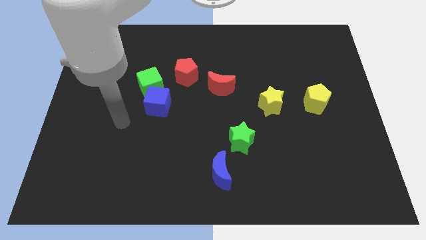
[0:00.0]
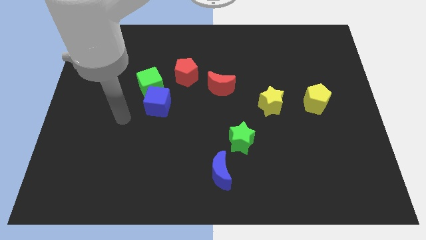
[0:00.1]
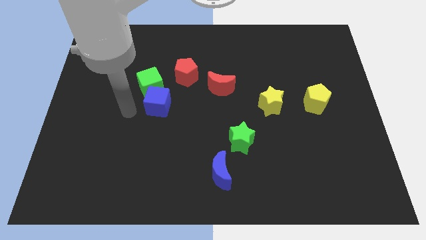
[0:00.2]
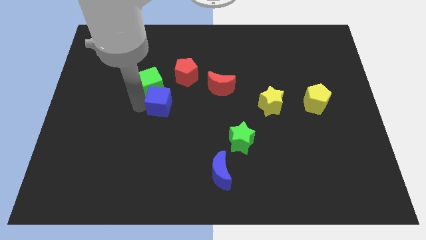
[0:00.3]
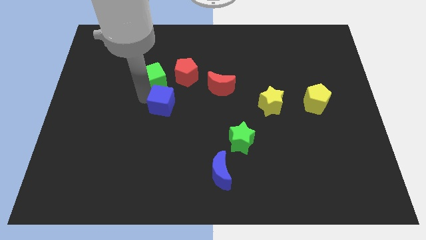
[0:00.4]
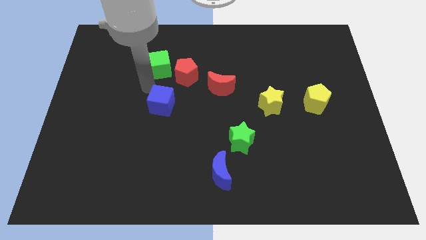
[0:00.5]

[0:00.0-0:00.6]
move the blue cube away from the green cube

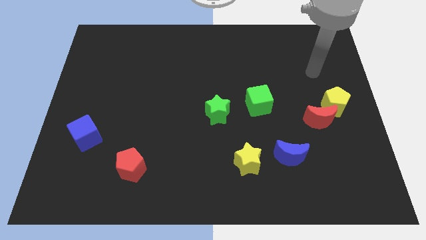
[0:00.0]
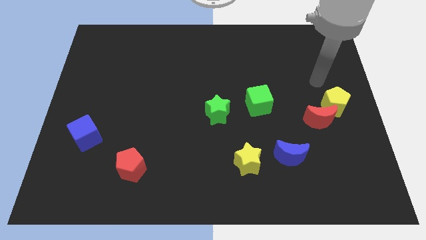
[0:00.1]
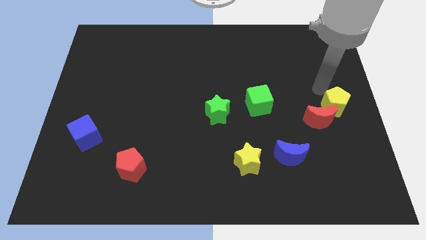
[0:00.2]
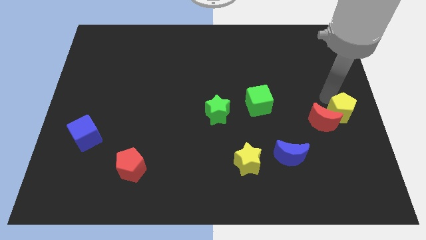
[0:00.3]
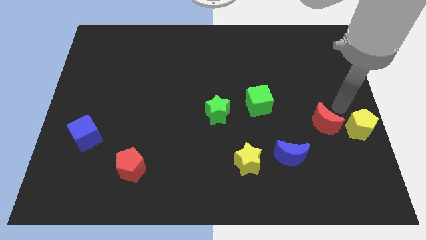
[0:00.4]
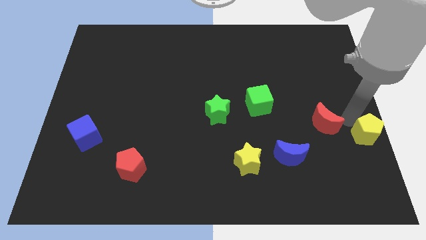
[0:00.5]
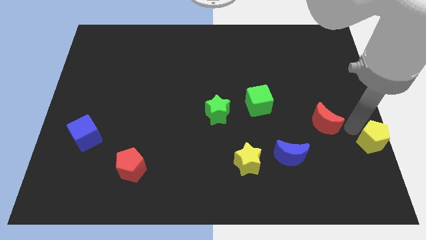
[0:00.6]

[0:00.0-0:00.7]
separate the red moon from the yellow pentagon

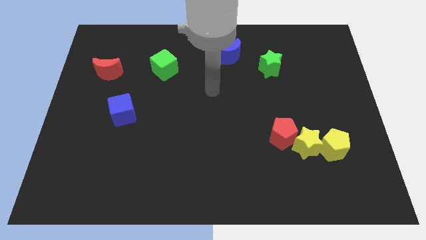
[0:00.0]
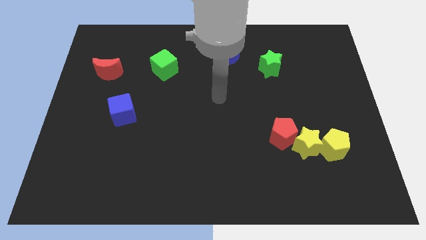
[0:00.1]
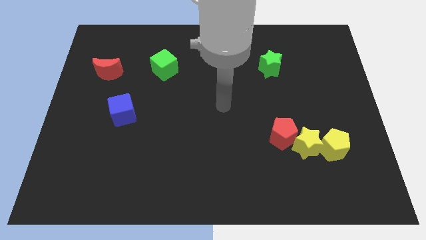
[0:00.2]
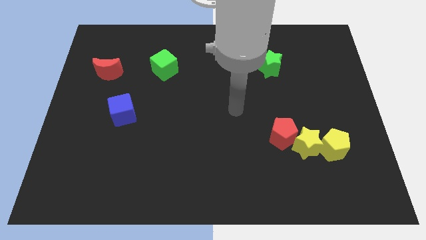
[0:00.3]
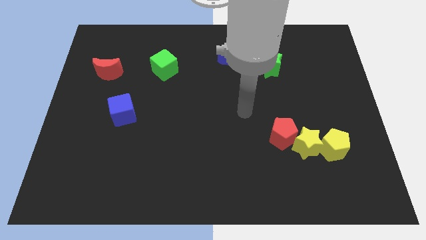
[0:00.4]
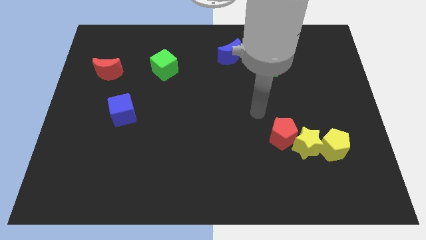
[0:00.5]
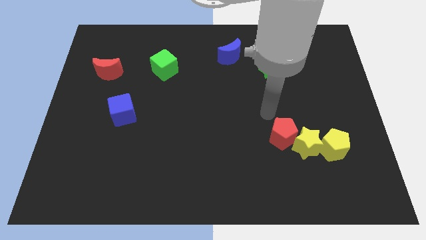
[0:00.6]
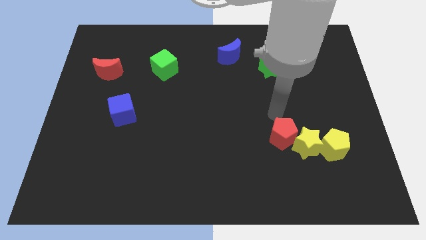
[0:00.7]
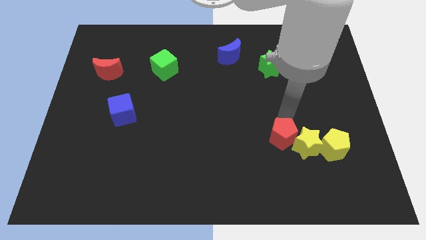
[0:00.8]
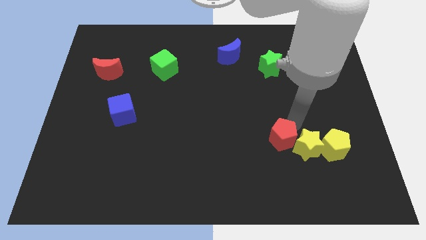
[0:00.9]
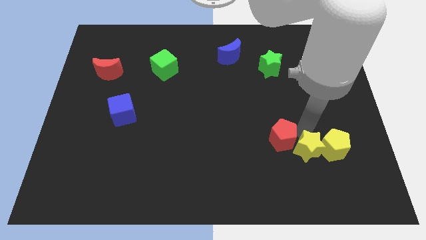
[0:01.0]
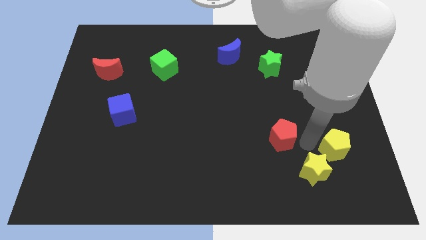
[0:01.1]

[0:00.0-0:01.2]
separate the red pentagon from the yellow star

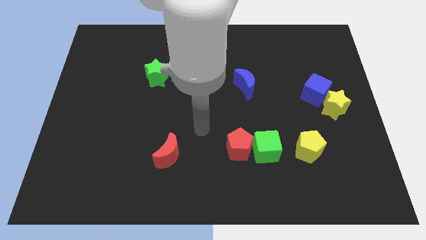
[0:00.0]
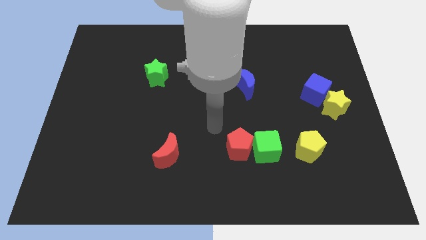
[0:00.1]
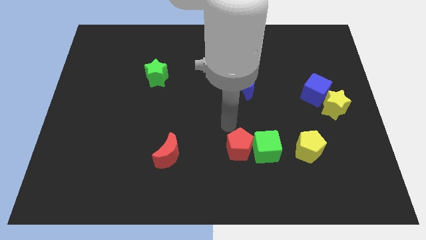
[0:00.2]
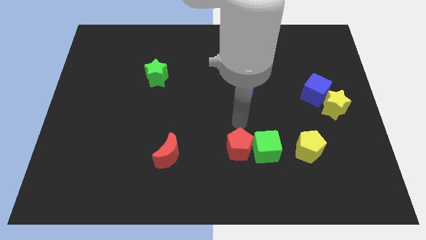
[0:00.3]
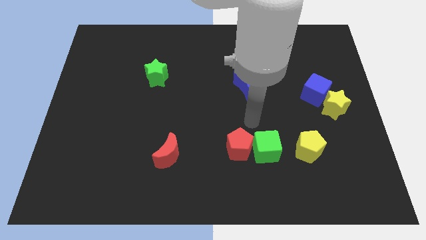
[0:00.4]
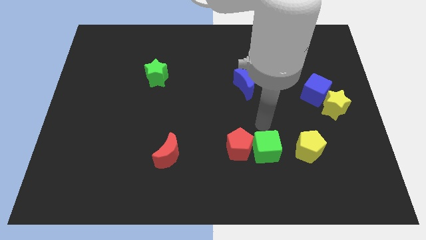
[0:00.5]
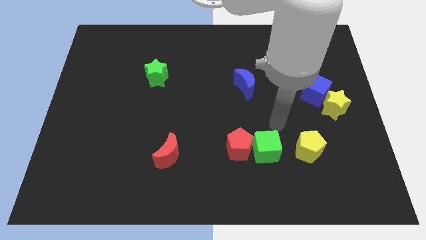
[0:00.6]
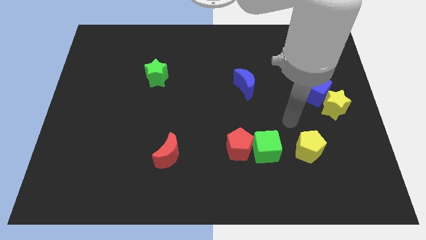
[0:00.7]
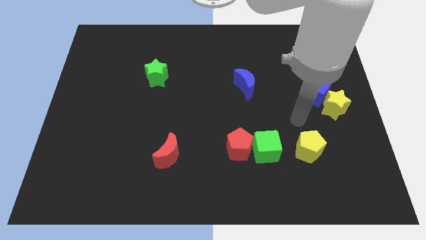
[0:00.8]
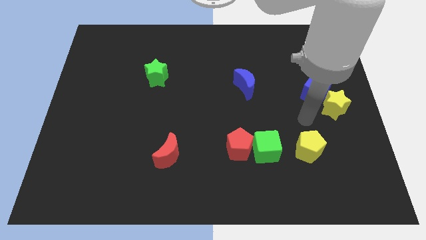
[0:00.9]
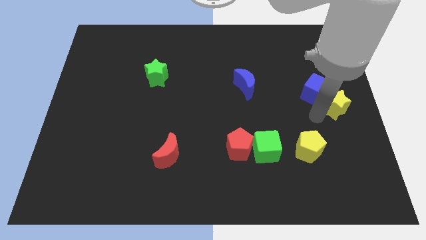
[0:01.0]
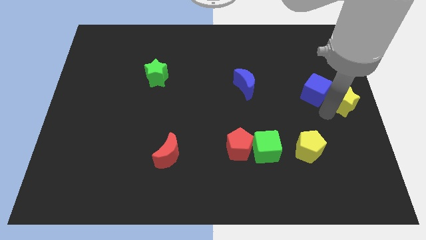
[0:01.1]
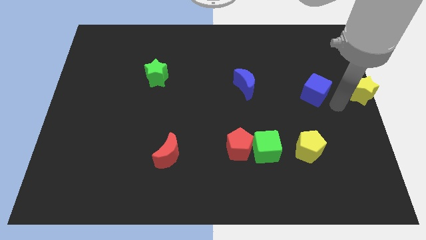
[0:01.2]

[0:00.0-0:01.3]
pull the blue cube apart from the yellow star

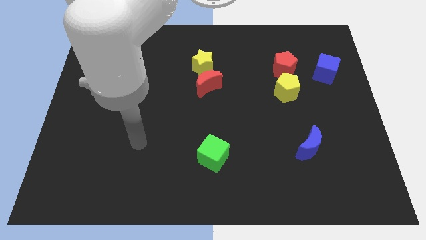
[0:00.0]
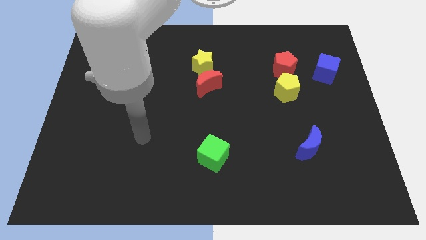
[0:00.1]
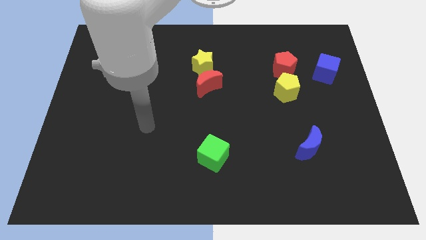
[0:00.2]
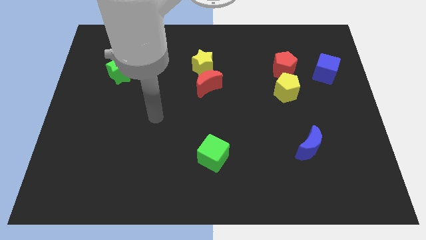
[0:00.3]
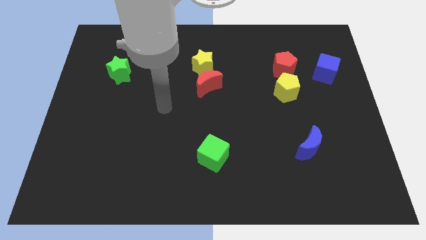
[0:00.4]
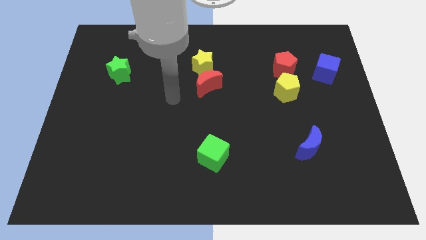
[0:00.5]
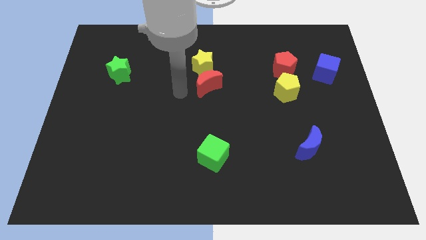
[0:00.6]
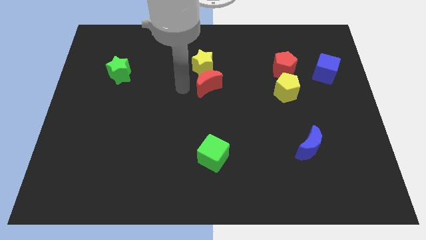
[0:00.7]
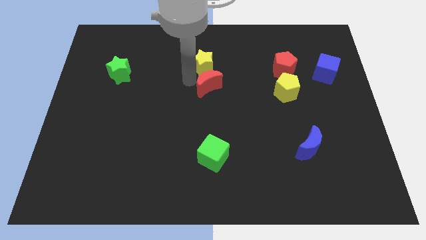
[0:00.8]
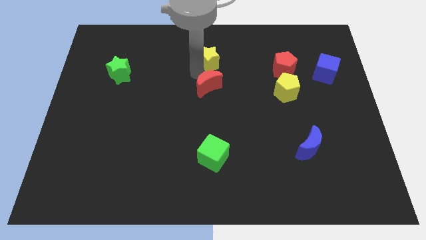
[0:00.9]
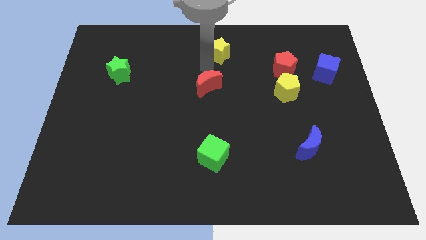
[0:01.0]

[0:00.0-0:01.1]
pull the red moon apart from the yellow star

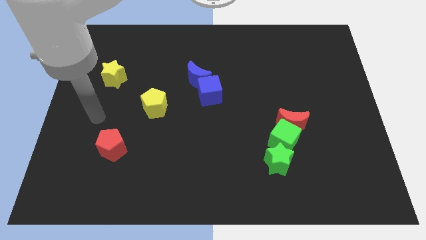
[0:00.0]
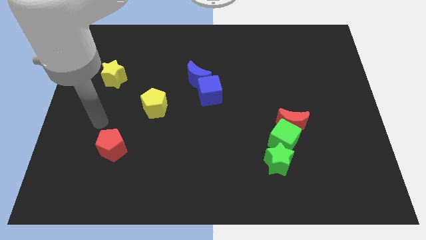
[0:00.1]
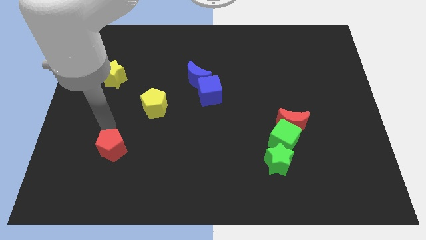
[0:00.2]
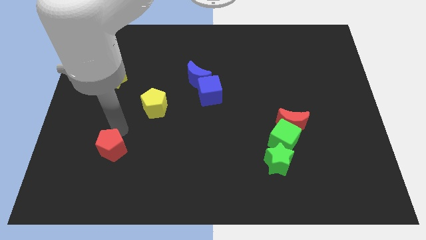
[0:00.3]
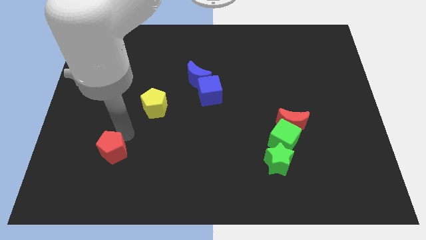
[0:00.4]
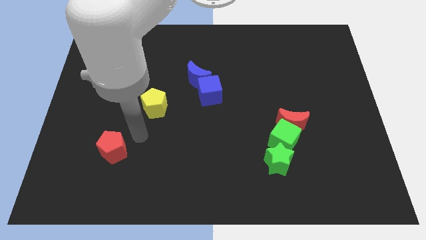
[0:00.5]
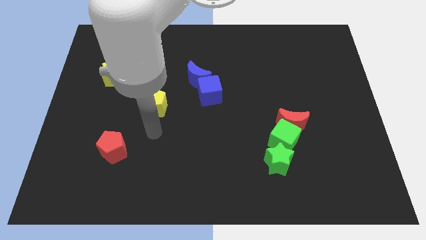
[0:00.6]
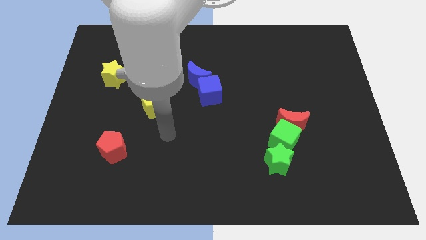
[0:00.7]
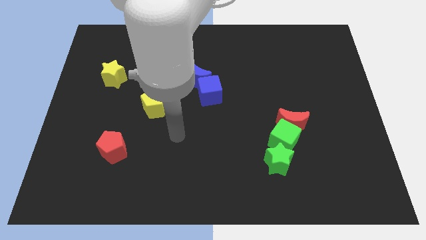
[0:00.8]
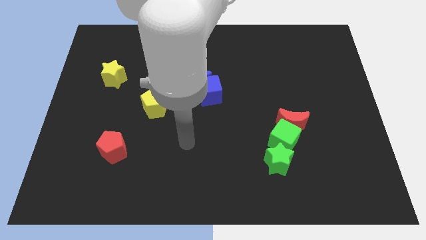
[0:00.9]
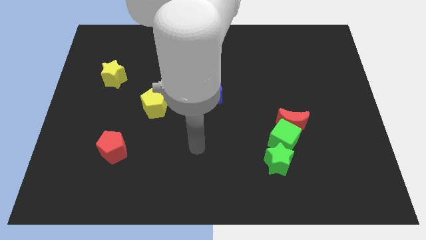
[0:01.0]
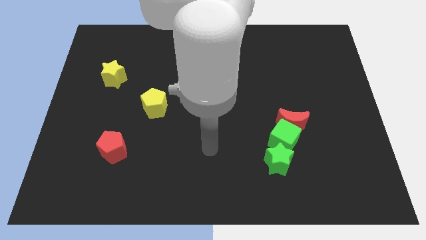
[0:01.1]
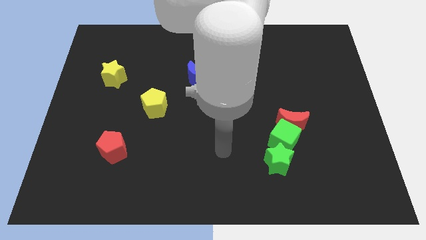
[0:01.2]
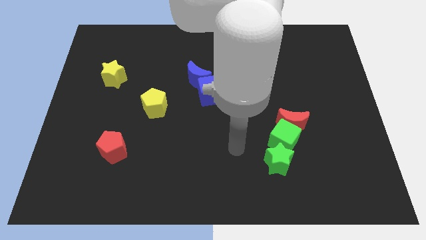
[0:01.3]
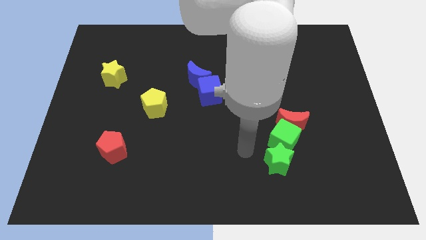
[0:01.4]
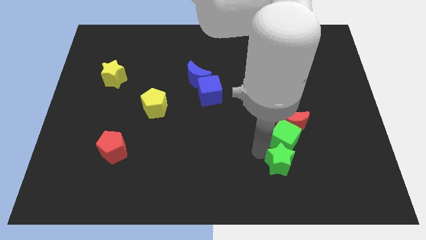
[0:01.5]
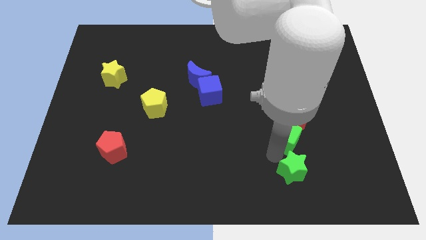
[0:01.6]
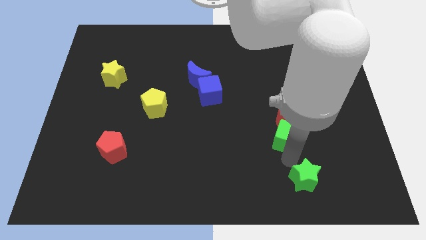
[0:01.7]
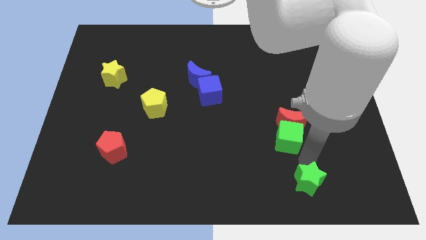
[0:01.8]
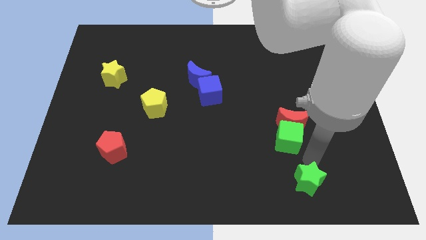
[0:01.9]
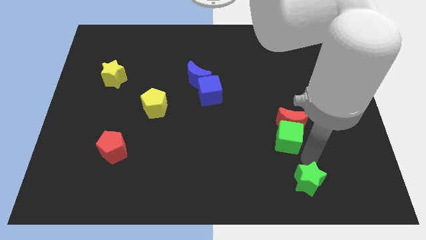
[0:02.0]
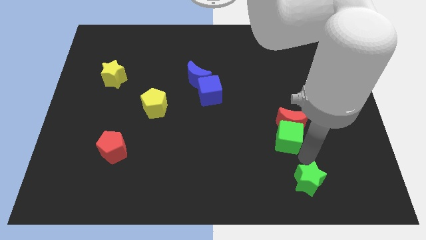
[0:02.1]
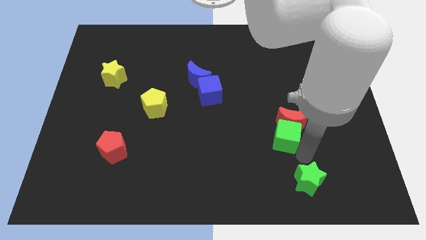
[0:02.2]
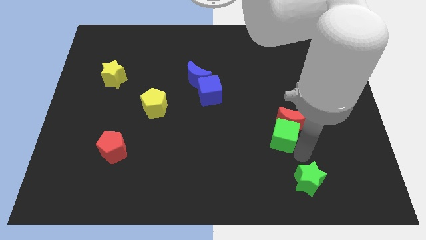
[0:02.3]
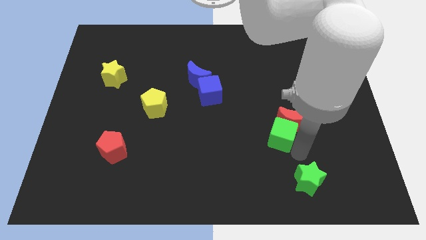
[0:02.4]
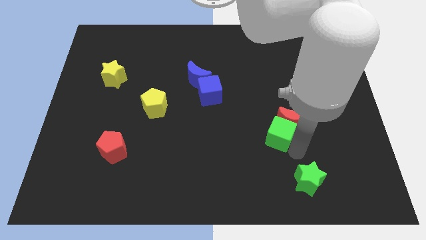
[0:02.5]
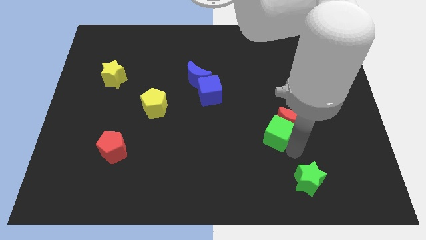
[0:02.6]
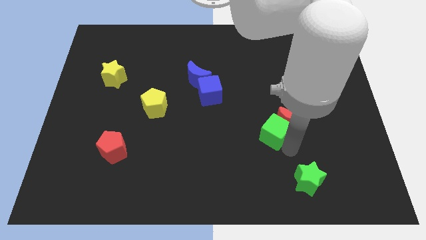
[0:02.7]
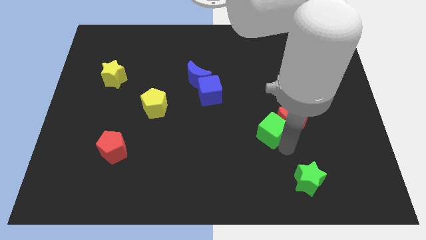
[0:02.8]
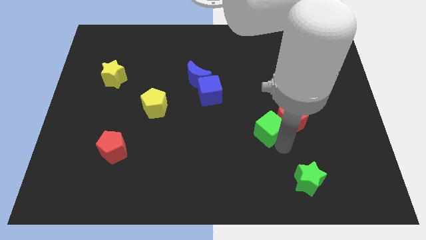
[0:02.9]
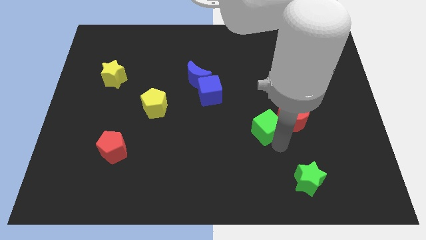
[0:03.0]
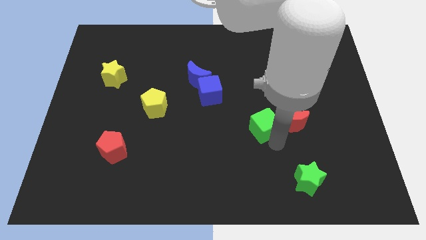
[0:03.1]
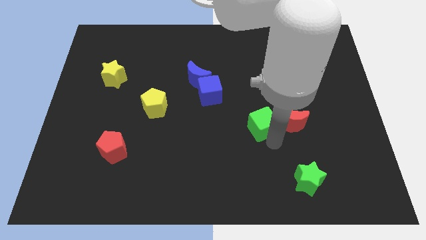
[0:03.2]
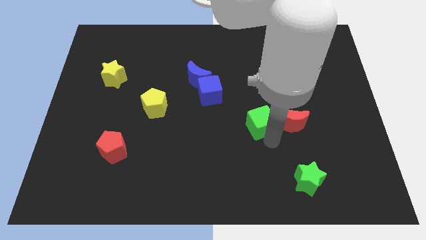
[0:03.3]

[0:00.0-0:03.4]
pull the green cube apart from the red moon and green star

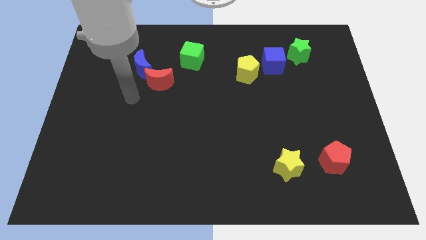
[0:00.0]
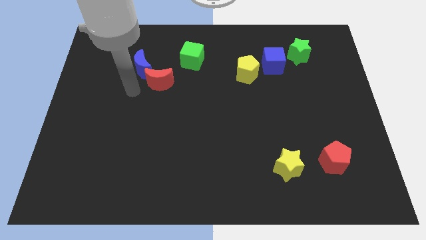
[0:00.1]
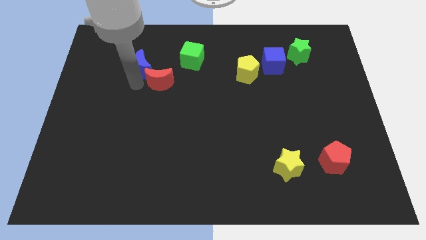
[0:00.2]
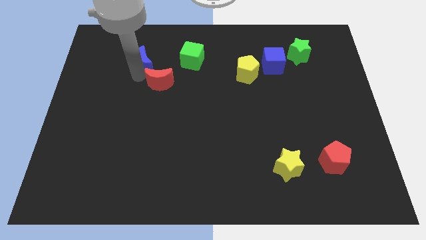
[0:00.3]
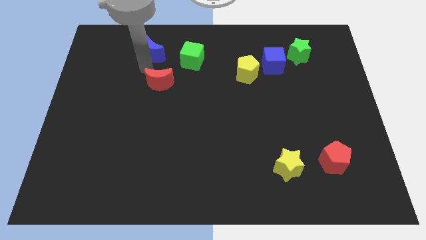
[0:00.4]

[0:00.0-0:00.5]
separate the red moon from the blue moon

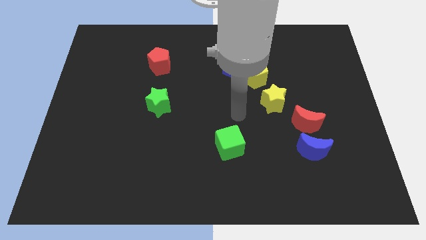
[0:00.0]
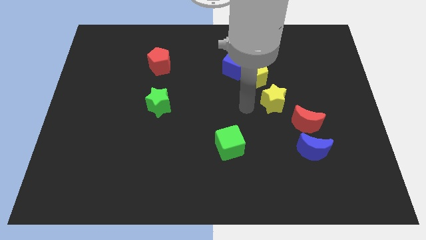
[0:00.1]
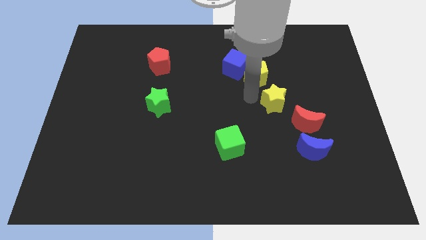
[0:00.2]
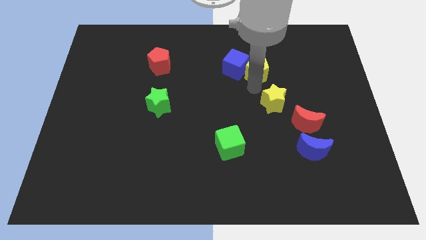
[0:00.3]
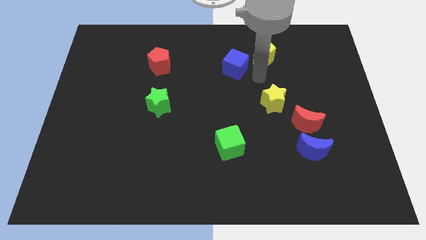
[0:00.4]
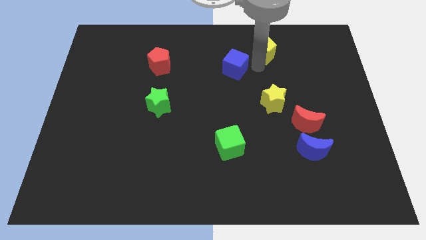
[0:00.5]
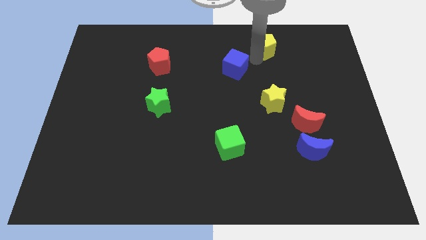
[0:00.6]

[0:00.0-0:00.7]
pull the blue cube apart from the yellow pentagon
